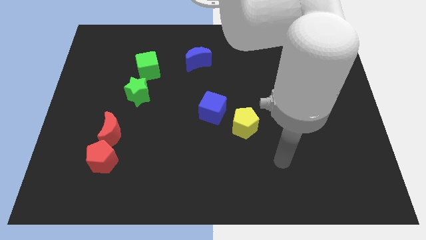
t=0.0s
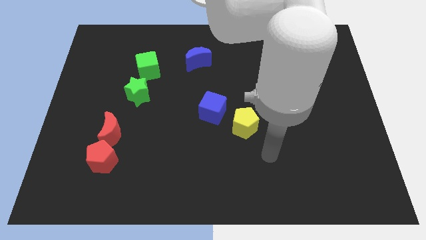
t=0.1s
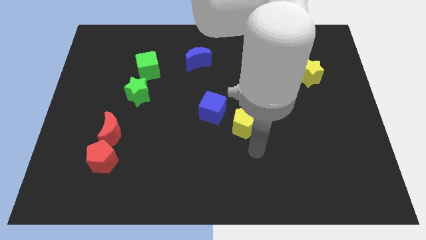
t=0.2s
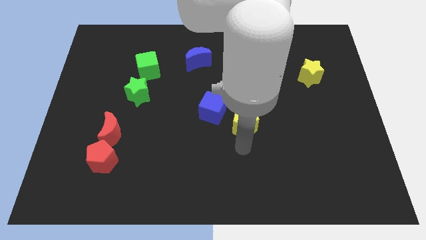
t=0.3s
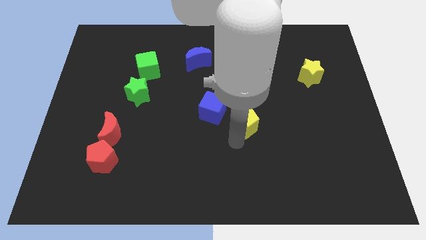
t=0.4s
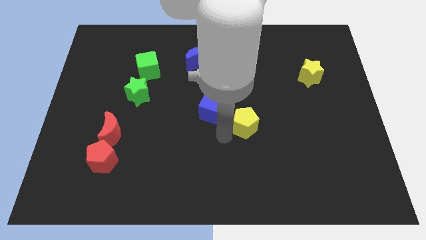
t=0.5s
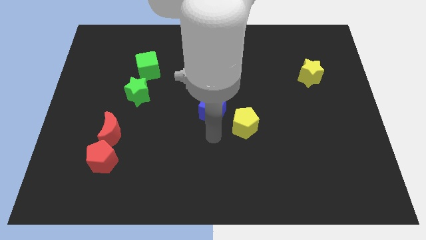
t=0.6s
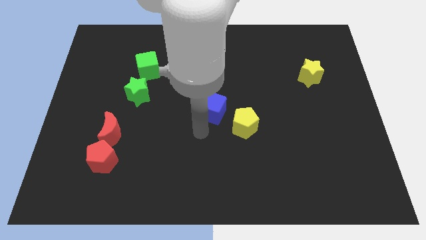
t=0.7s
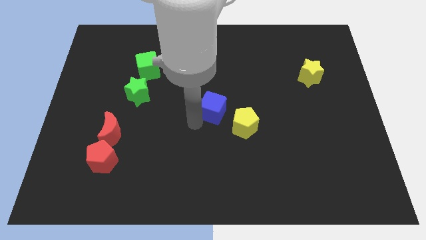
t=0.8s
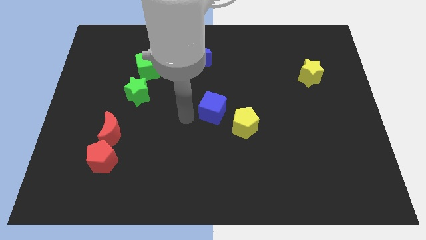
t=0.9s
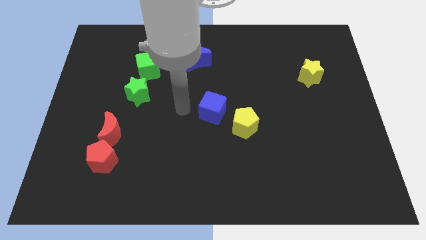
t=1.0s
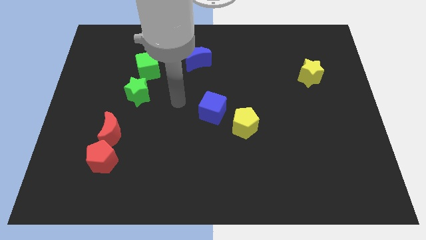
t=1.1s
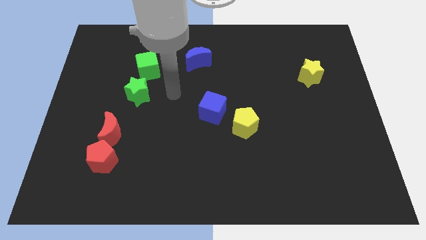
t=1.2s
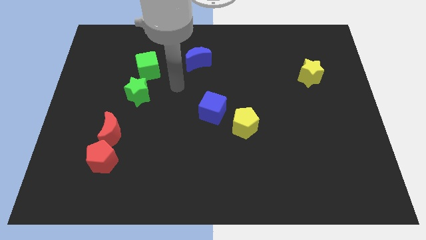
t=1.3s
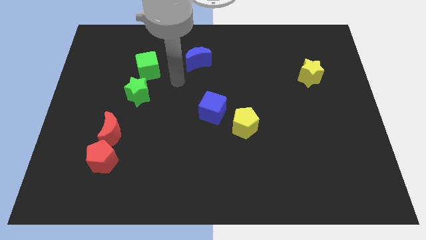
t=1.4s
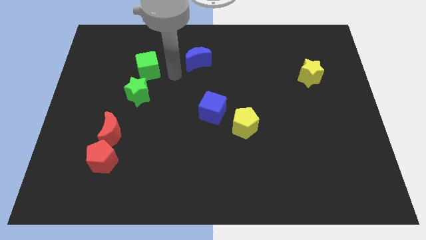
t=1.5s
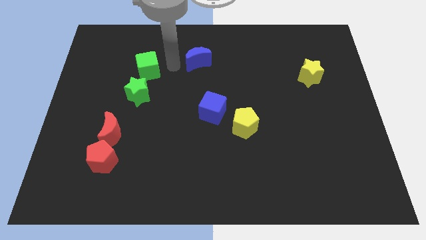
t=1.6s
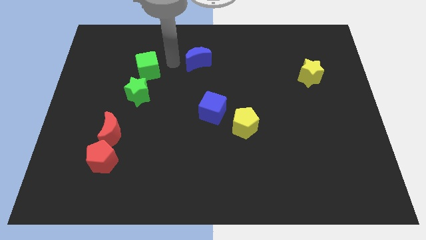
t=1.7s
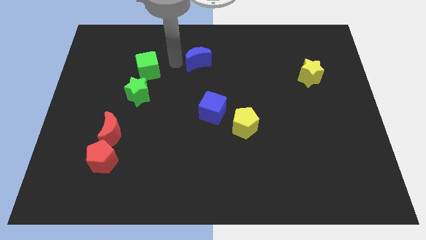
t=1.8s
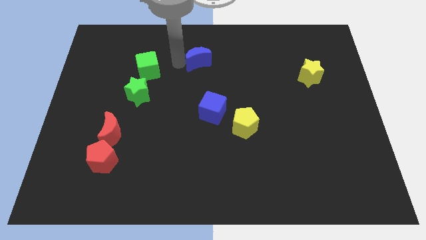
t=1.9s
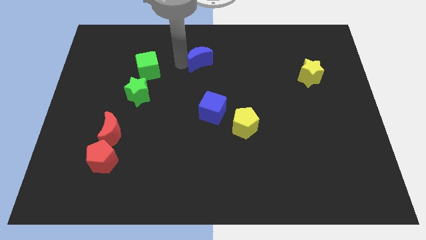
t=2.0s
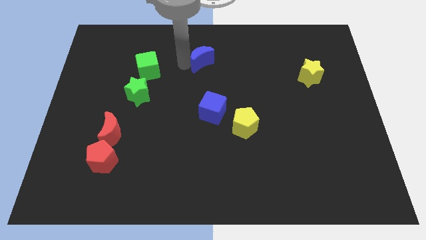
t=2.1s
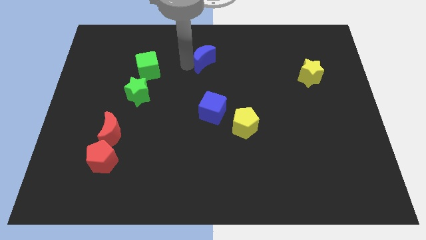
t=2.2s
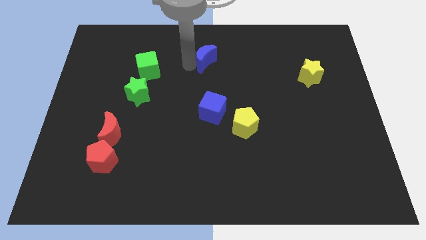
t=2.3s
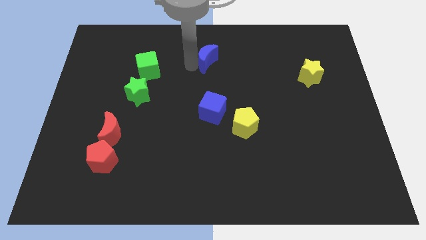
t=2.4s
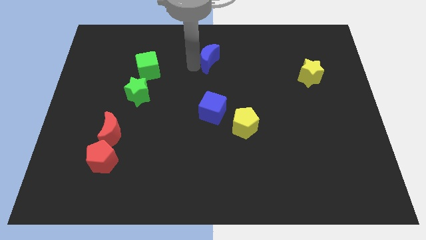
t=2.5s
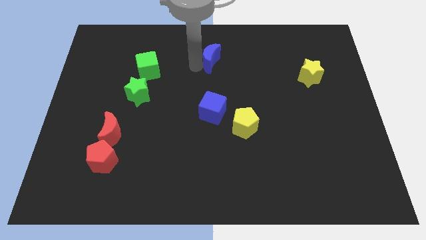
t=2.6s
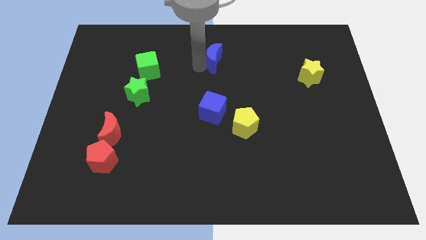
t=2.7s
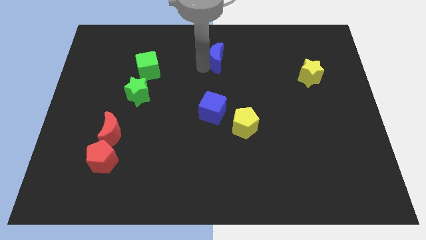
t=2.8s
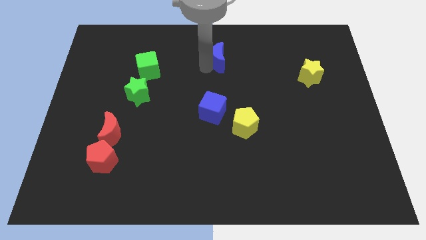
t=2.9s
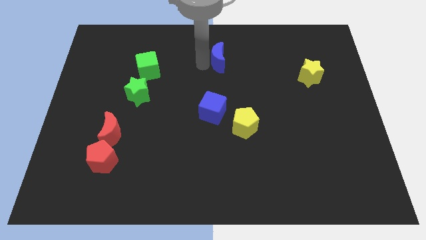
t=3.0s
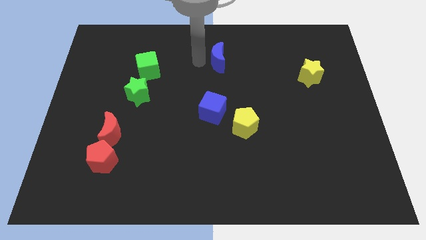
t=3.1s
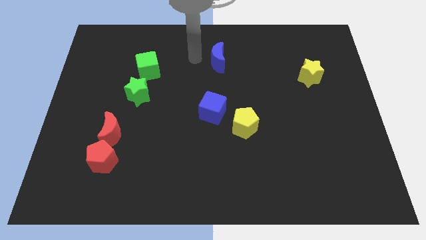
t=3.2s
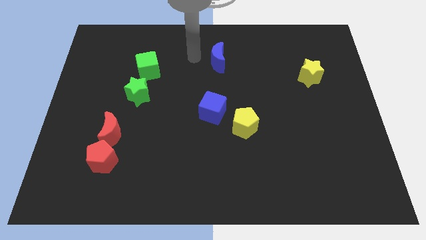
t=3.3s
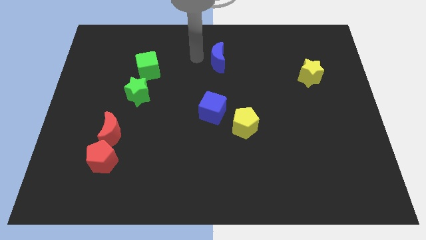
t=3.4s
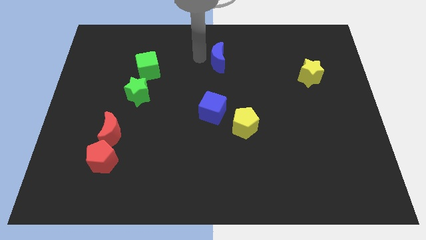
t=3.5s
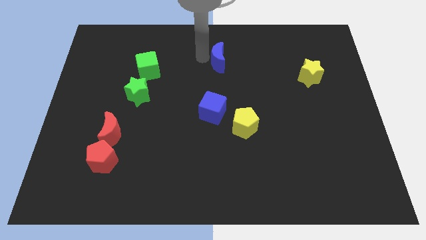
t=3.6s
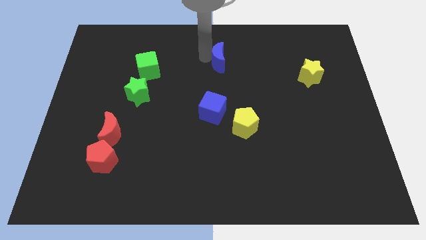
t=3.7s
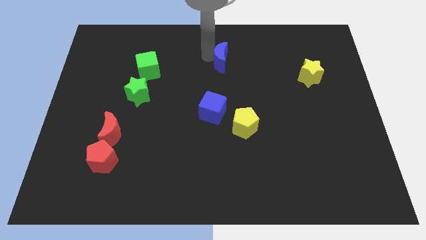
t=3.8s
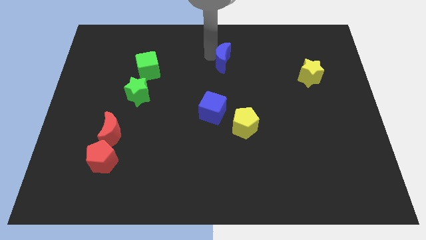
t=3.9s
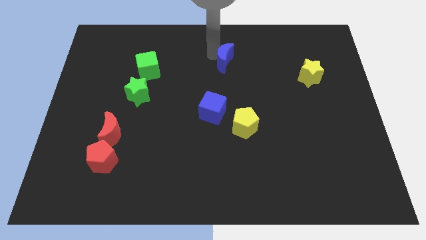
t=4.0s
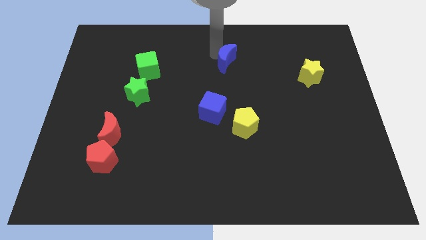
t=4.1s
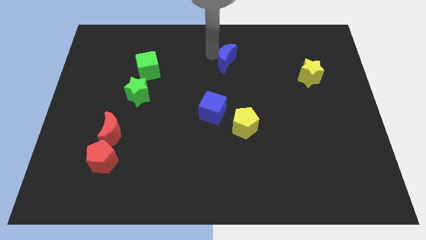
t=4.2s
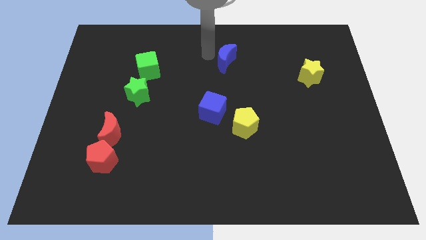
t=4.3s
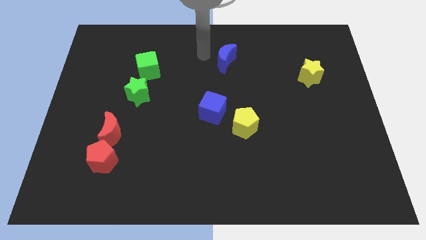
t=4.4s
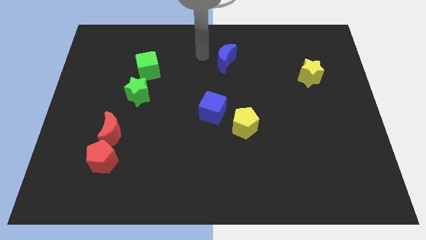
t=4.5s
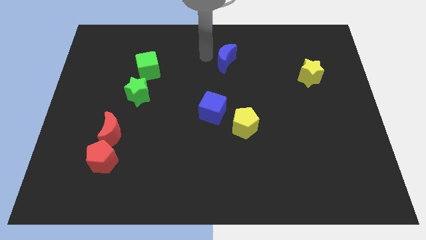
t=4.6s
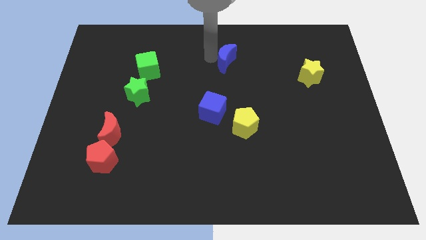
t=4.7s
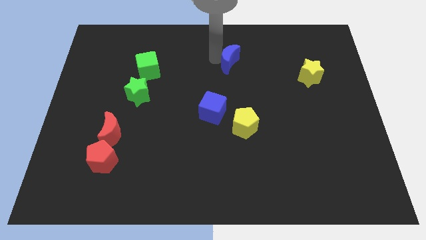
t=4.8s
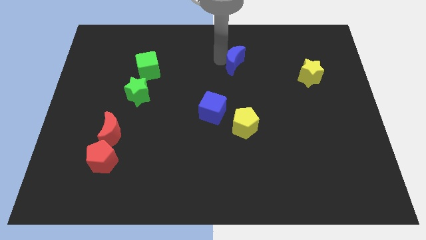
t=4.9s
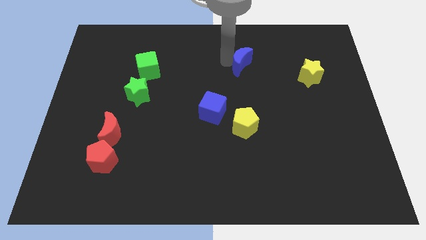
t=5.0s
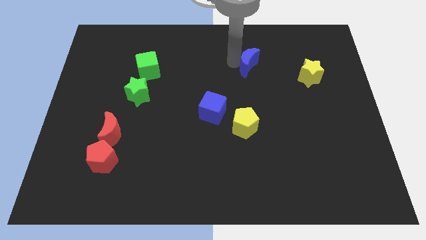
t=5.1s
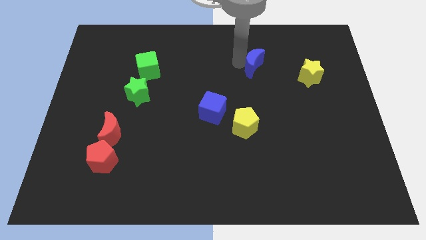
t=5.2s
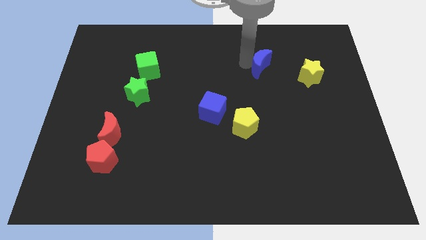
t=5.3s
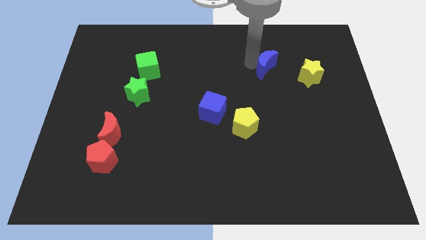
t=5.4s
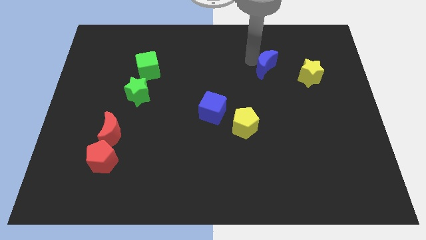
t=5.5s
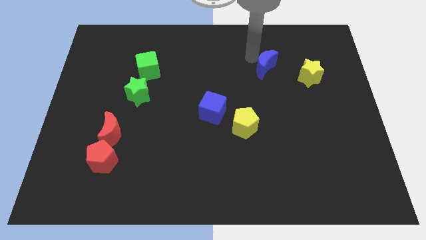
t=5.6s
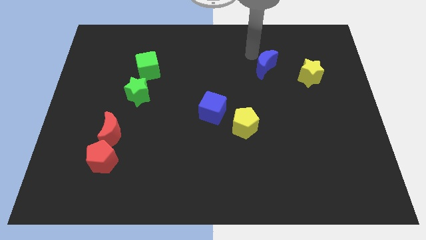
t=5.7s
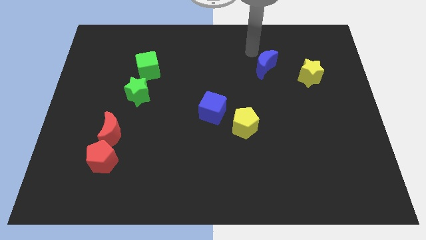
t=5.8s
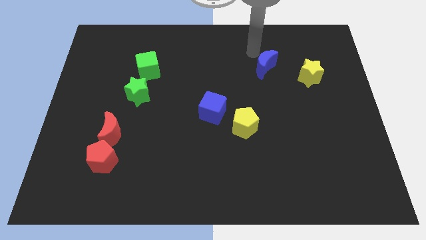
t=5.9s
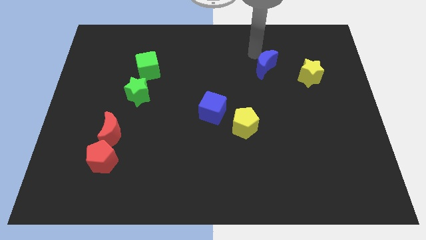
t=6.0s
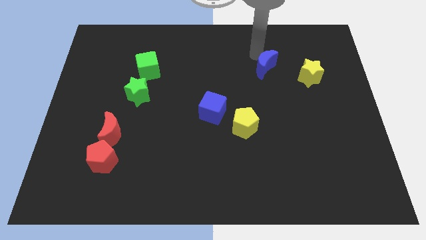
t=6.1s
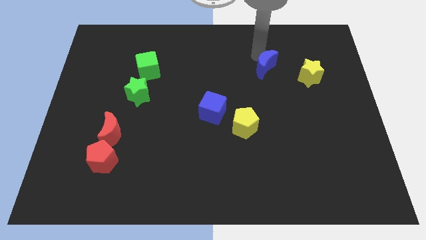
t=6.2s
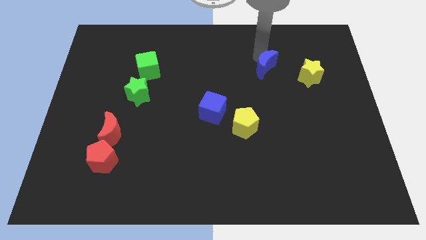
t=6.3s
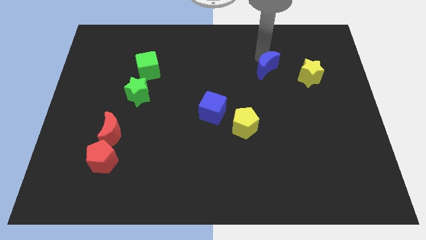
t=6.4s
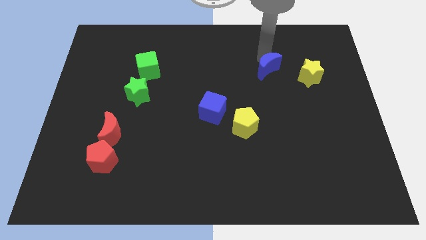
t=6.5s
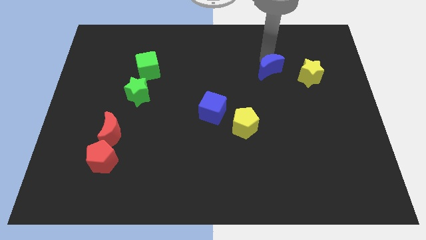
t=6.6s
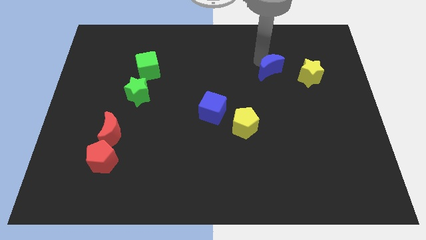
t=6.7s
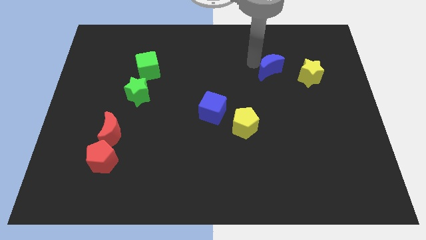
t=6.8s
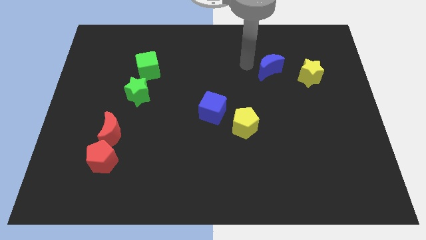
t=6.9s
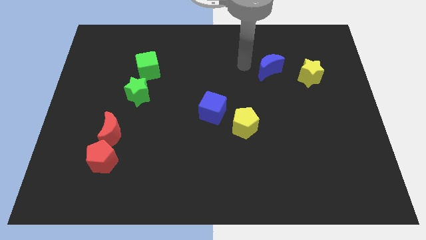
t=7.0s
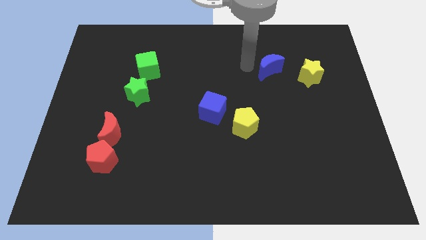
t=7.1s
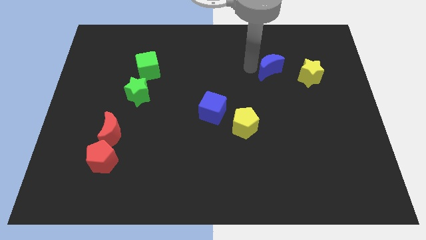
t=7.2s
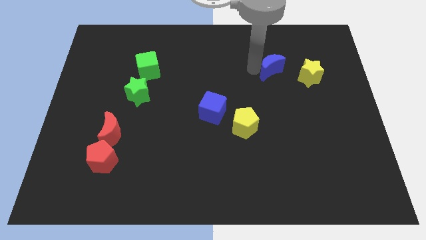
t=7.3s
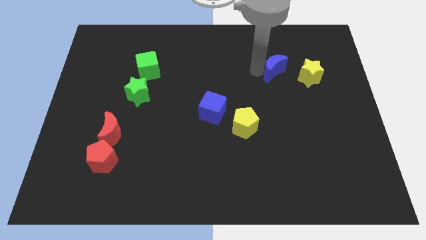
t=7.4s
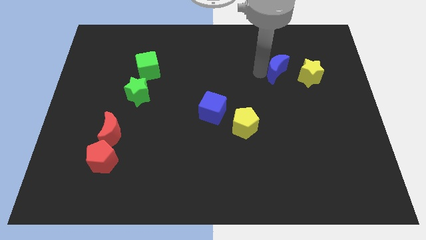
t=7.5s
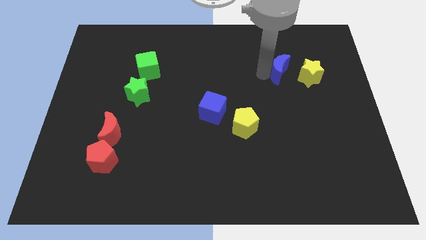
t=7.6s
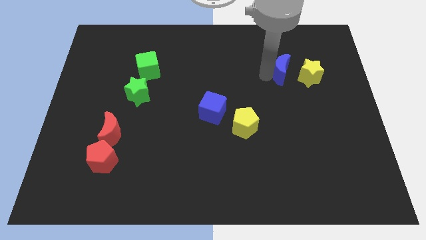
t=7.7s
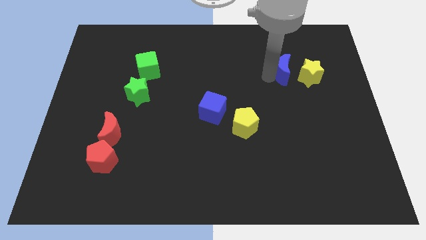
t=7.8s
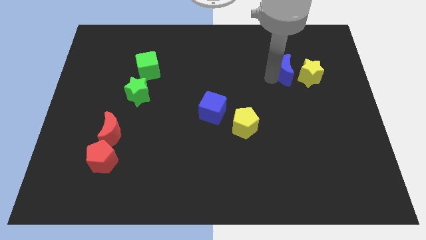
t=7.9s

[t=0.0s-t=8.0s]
put the blue moon close to the yellow star

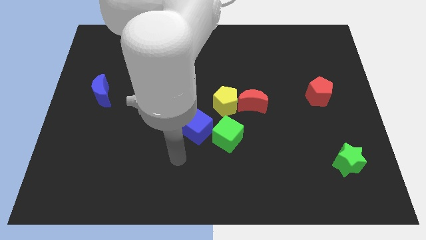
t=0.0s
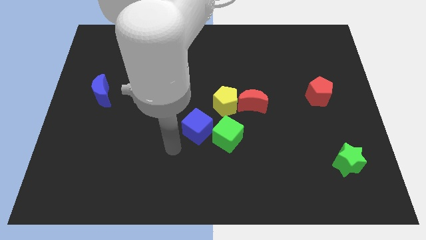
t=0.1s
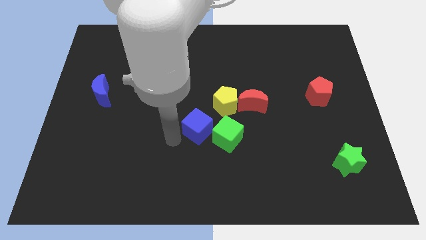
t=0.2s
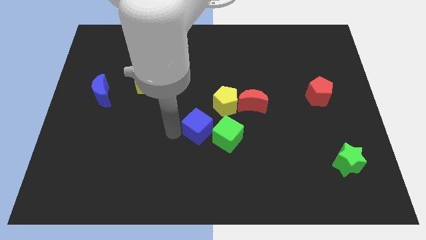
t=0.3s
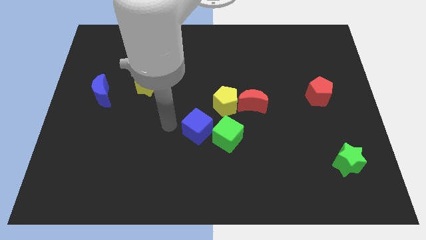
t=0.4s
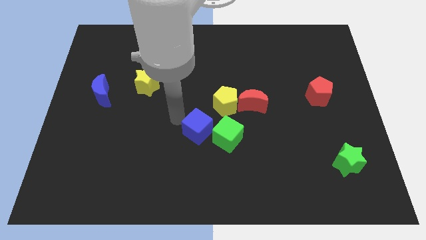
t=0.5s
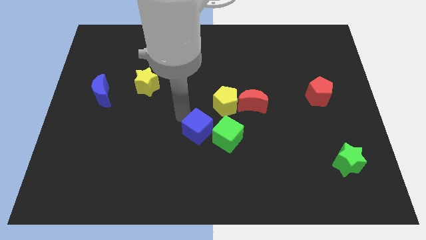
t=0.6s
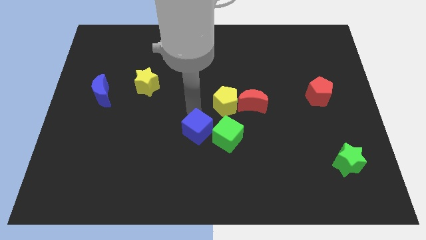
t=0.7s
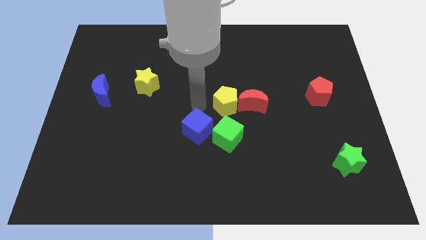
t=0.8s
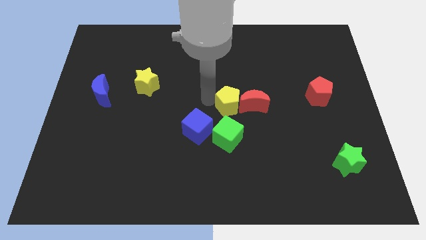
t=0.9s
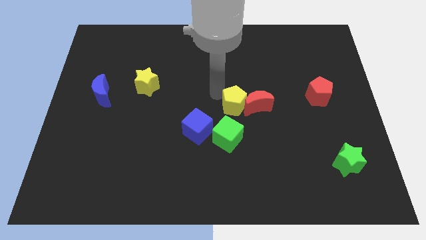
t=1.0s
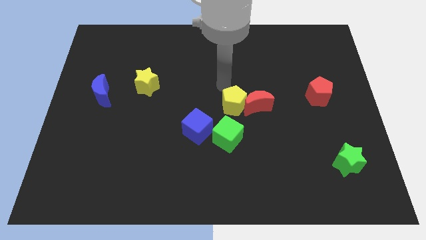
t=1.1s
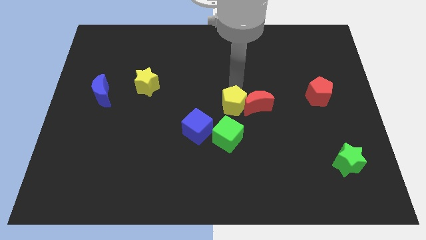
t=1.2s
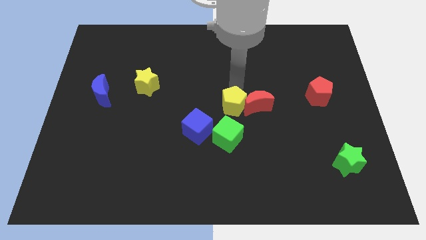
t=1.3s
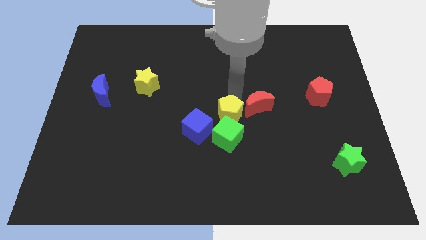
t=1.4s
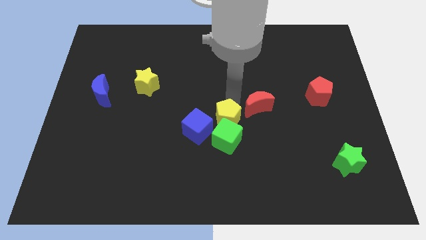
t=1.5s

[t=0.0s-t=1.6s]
slide the yellow pentagon towards the green cube
